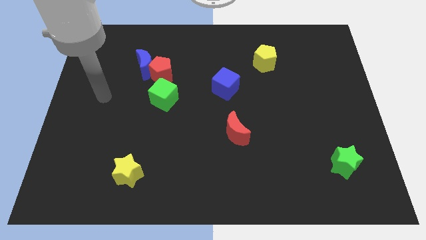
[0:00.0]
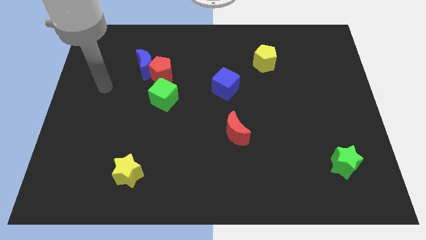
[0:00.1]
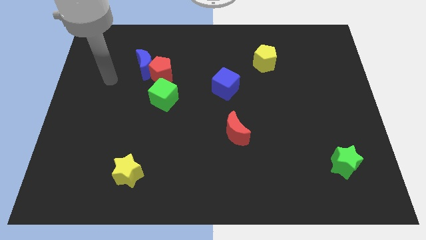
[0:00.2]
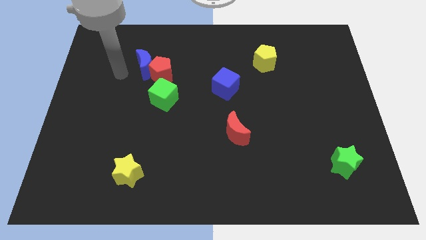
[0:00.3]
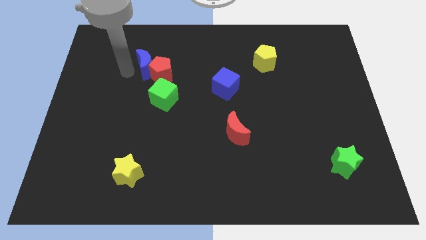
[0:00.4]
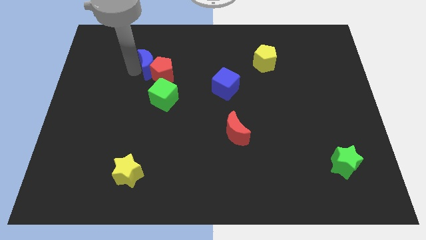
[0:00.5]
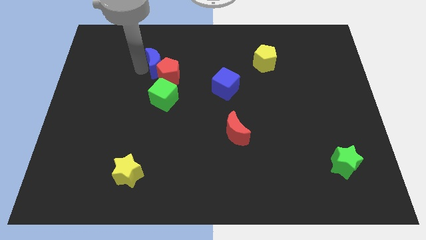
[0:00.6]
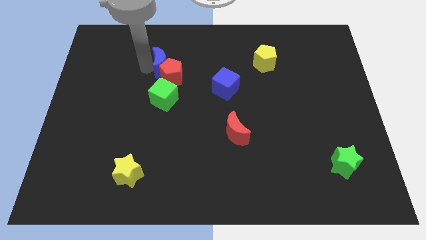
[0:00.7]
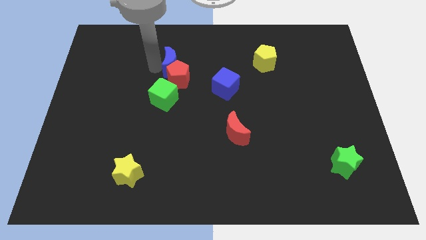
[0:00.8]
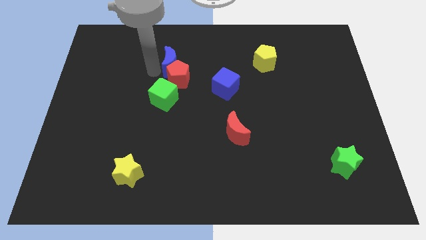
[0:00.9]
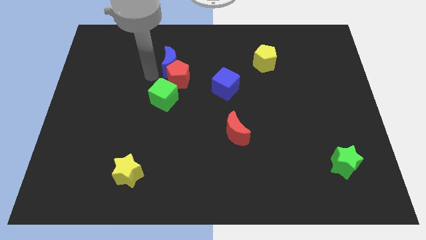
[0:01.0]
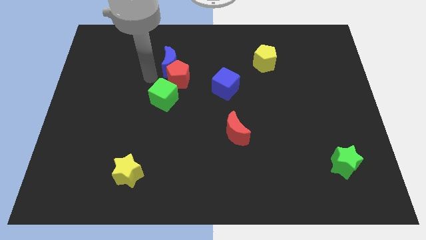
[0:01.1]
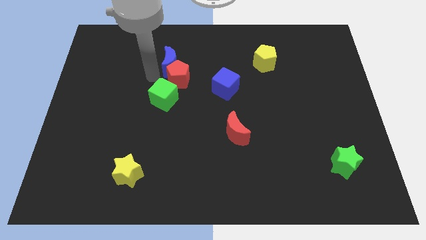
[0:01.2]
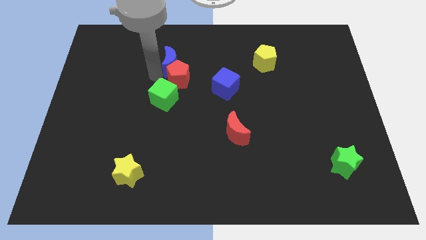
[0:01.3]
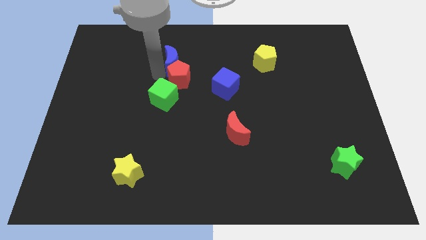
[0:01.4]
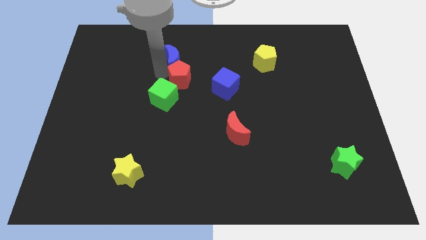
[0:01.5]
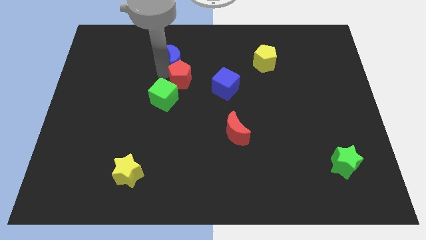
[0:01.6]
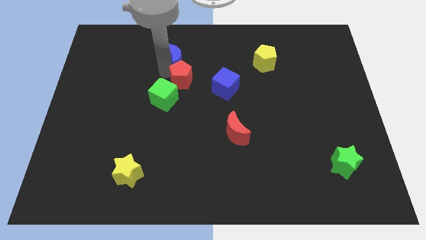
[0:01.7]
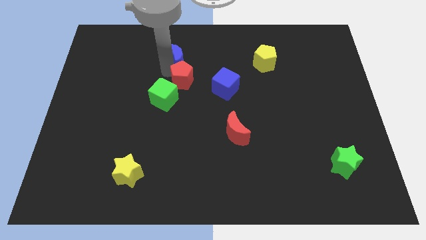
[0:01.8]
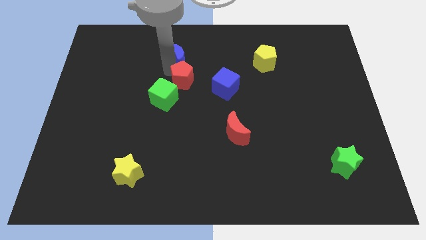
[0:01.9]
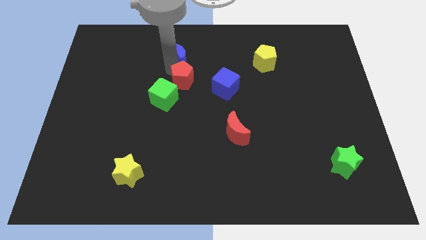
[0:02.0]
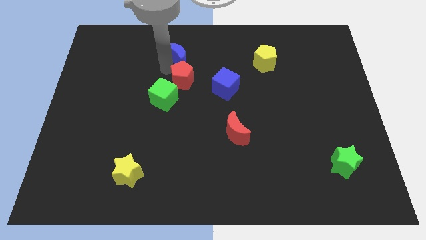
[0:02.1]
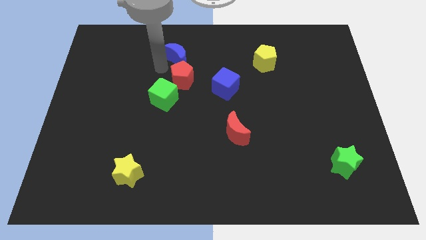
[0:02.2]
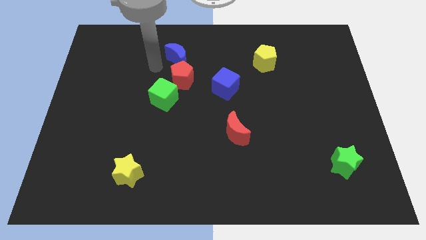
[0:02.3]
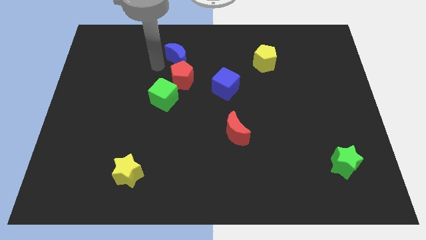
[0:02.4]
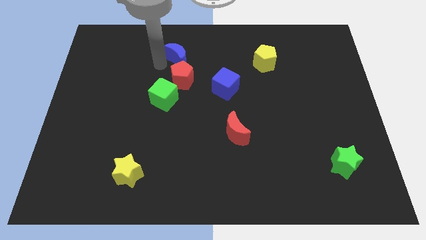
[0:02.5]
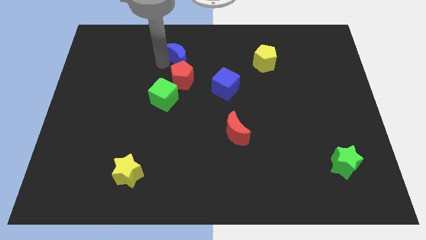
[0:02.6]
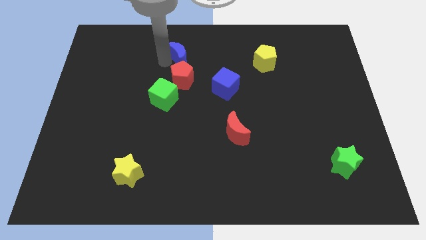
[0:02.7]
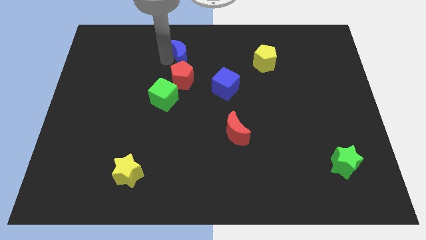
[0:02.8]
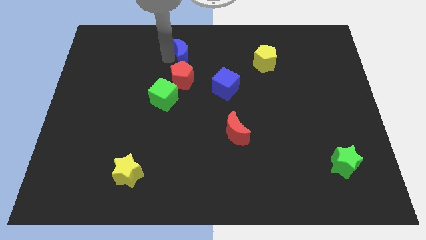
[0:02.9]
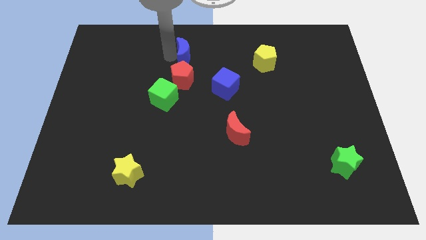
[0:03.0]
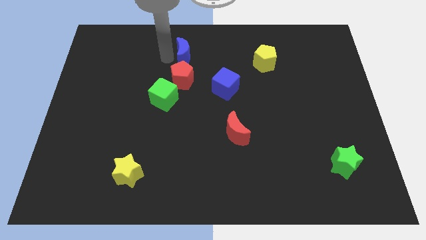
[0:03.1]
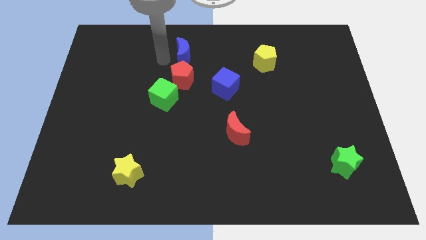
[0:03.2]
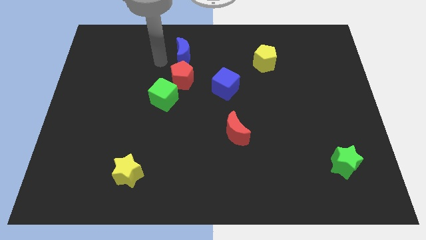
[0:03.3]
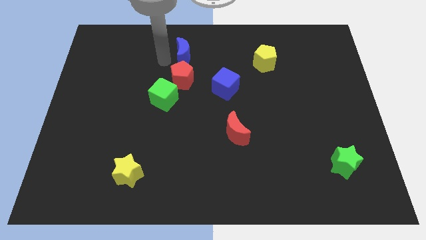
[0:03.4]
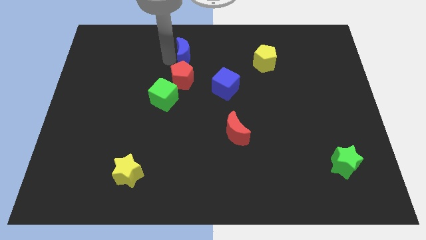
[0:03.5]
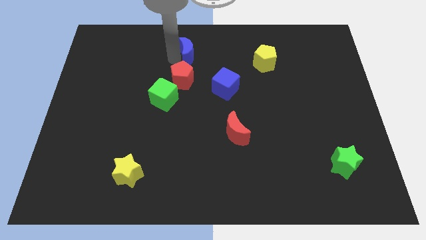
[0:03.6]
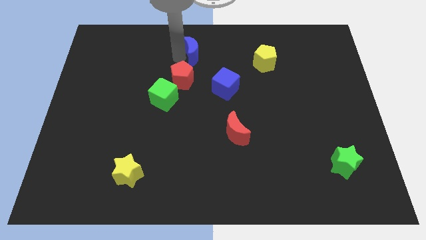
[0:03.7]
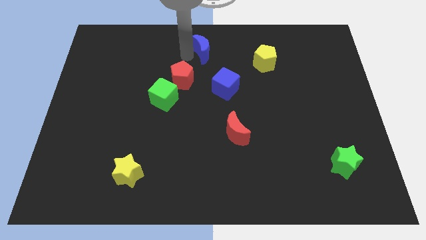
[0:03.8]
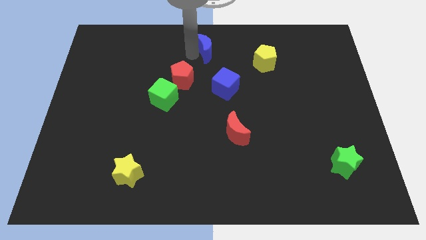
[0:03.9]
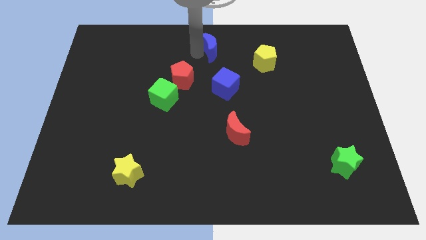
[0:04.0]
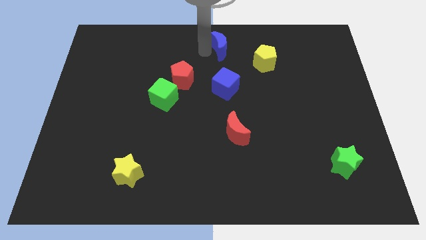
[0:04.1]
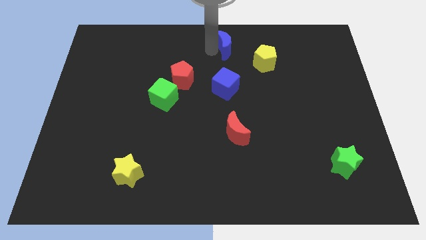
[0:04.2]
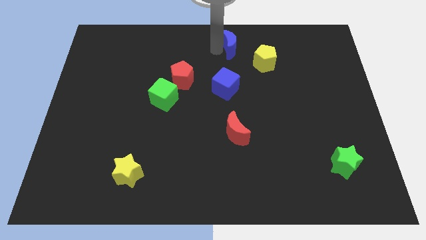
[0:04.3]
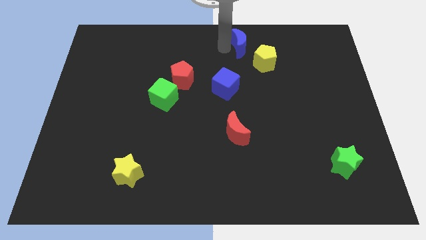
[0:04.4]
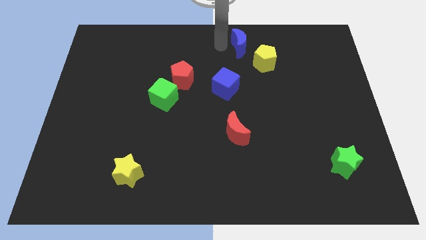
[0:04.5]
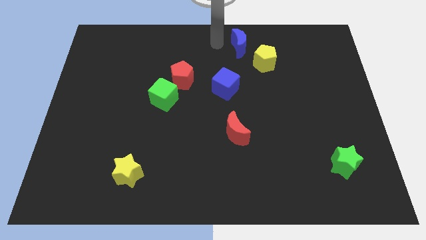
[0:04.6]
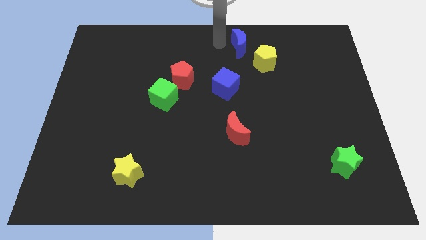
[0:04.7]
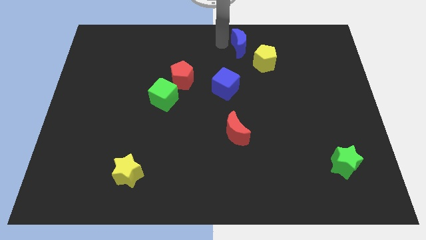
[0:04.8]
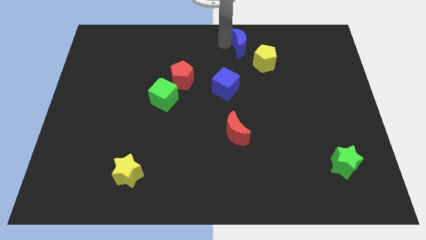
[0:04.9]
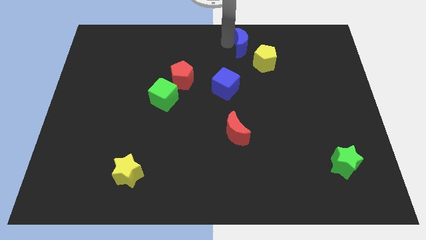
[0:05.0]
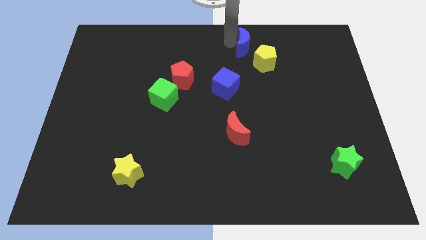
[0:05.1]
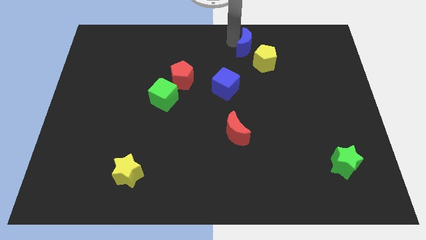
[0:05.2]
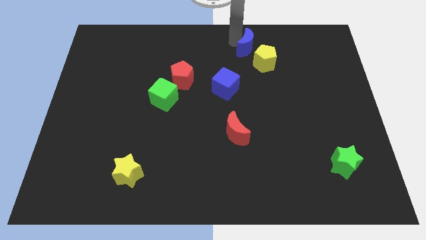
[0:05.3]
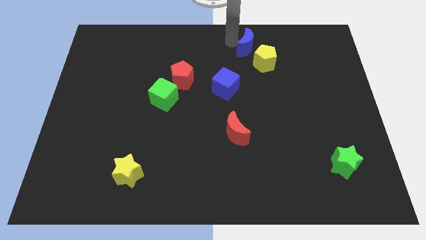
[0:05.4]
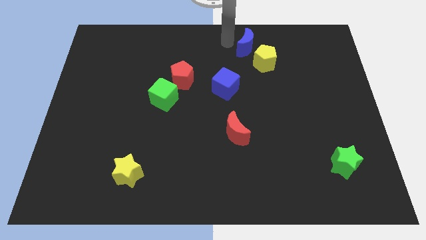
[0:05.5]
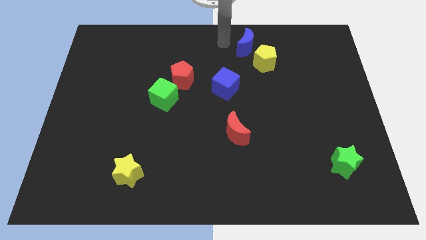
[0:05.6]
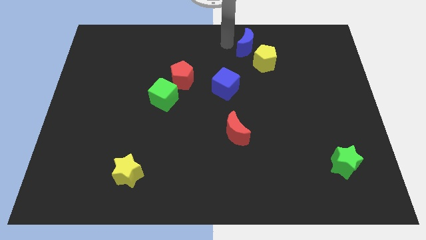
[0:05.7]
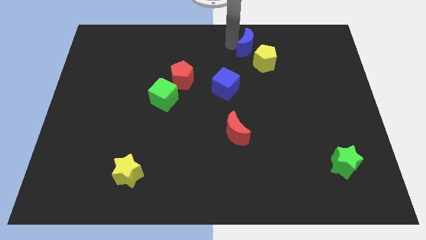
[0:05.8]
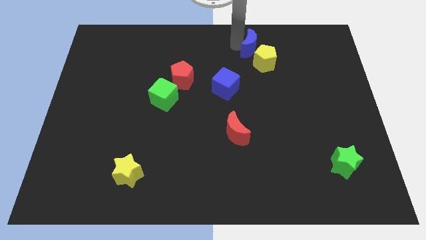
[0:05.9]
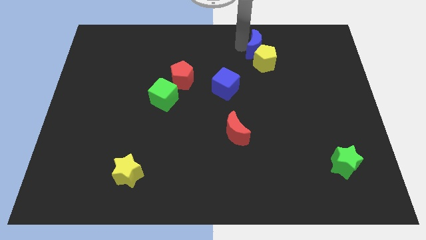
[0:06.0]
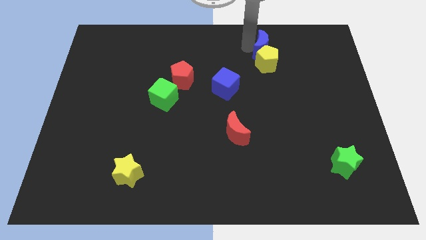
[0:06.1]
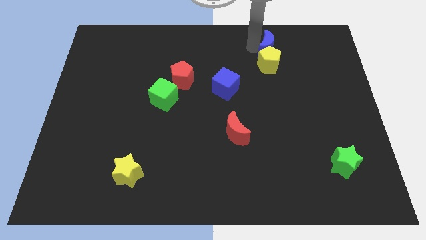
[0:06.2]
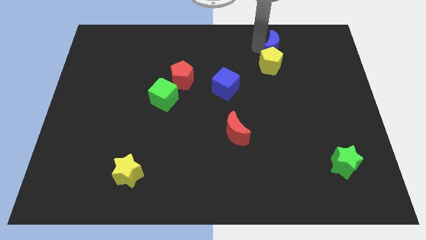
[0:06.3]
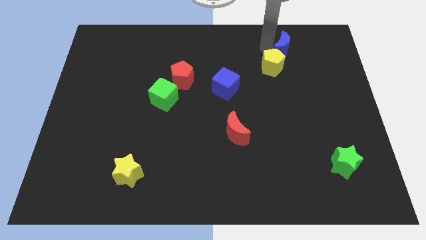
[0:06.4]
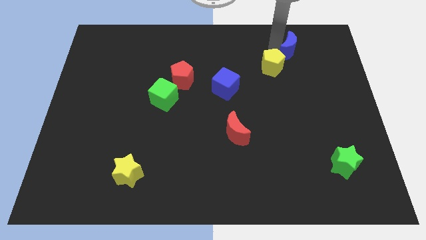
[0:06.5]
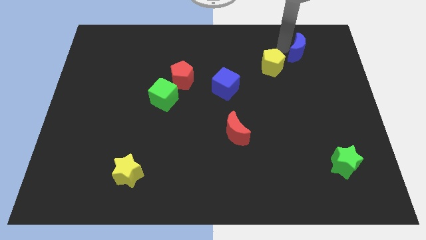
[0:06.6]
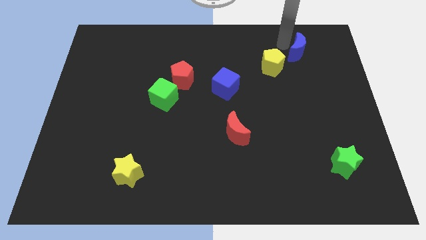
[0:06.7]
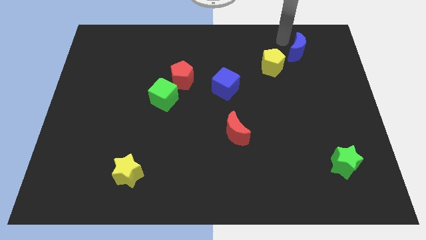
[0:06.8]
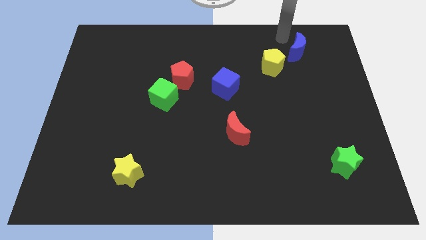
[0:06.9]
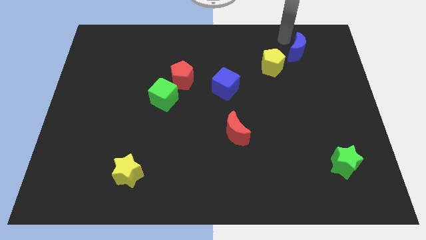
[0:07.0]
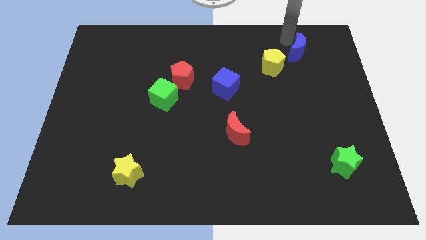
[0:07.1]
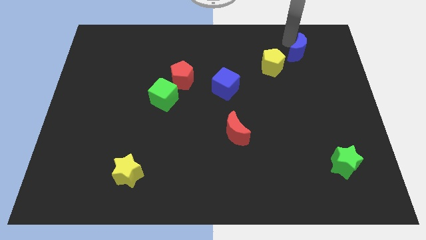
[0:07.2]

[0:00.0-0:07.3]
slide the blue moon to the right of the yellow pentagon
